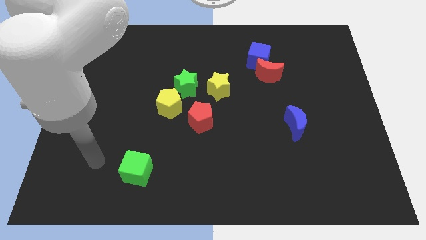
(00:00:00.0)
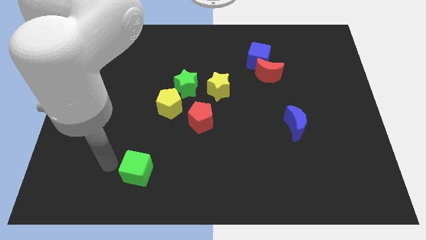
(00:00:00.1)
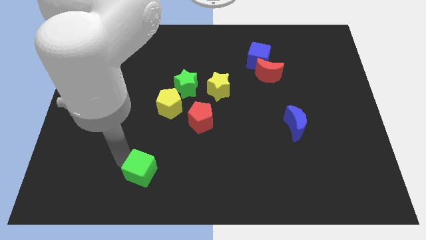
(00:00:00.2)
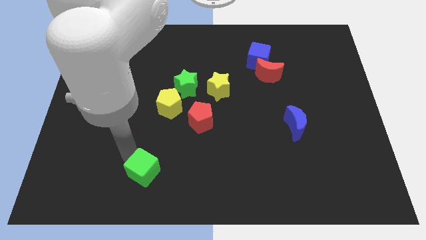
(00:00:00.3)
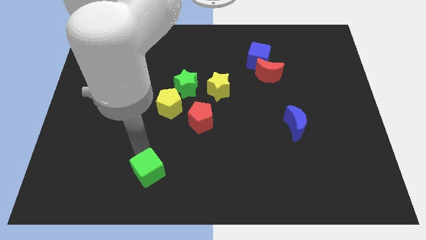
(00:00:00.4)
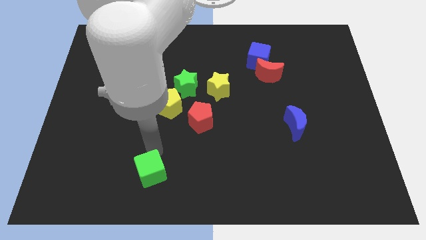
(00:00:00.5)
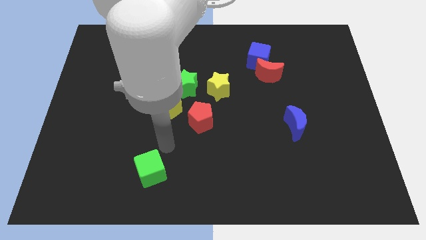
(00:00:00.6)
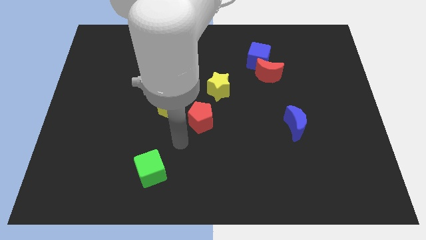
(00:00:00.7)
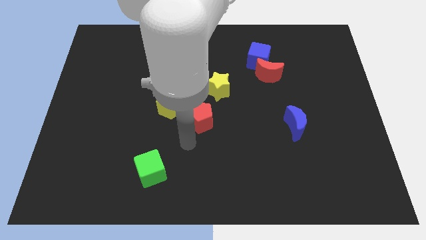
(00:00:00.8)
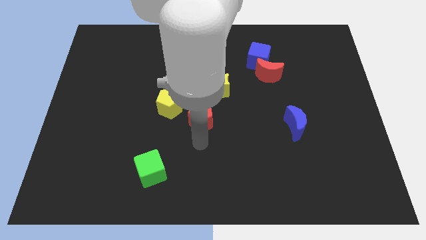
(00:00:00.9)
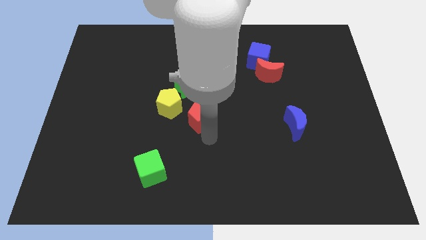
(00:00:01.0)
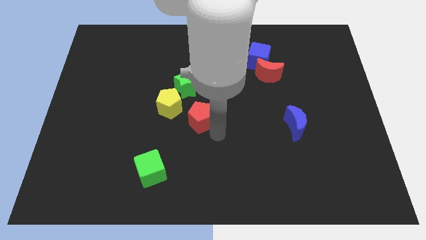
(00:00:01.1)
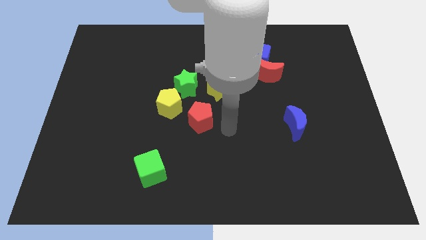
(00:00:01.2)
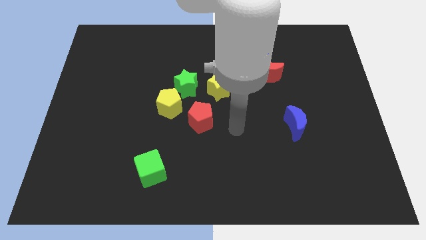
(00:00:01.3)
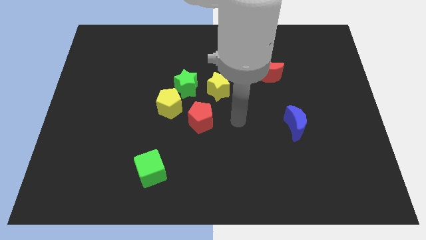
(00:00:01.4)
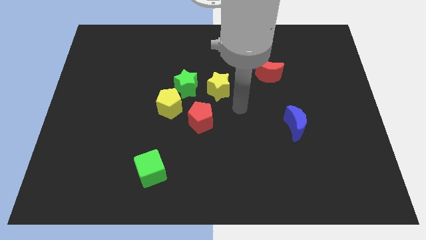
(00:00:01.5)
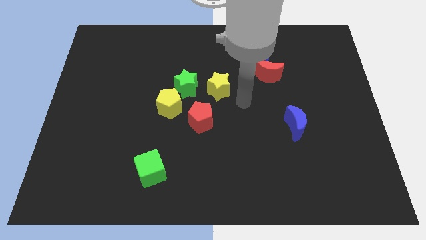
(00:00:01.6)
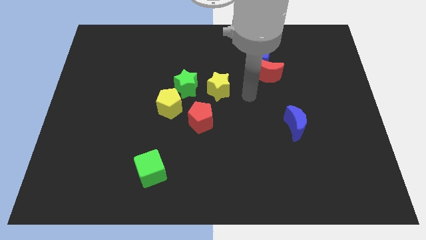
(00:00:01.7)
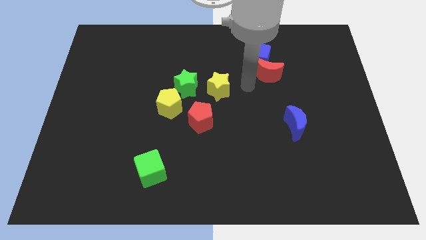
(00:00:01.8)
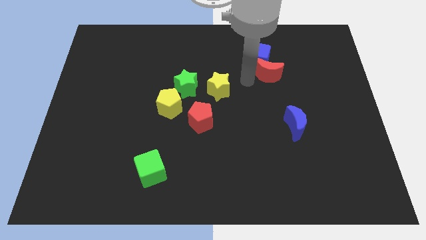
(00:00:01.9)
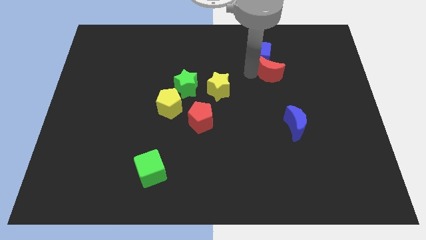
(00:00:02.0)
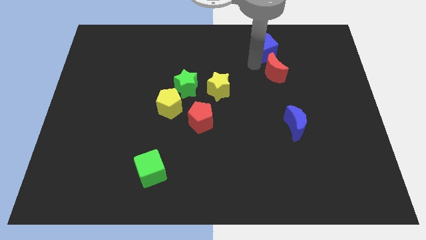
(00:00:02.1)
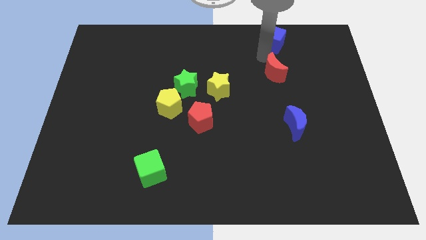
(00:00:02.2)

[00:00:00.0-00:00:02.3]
move the red moon away from the blue cube

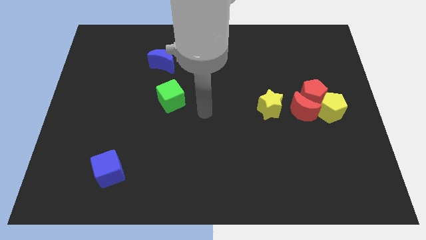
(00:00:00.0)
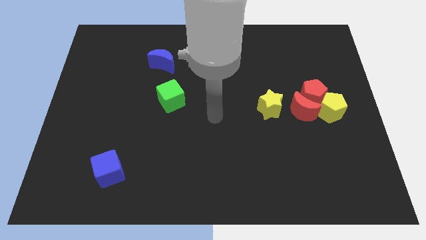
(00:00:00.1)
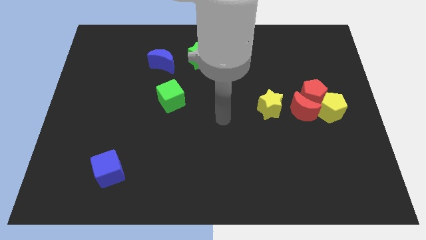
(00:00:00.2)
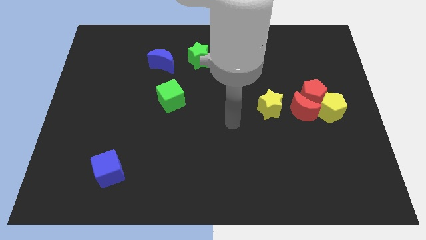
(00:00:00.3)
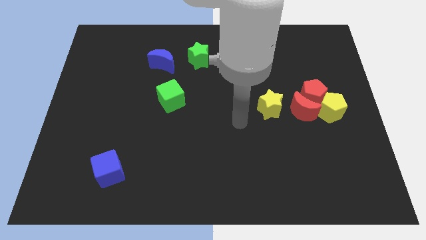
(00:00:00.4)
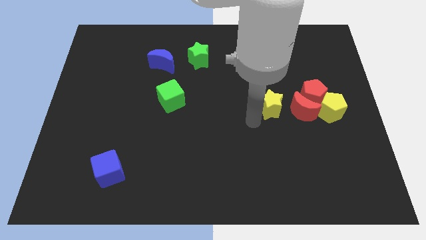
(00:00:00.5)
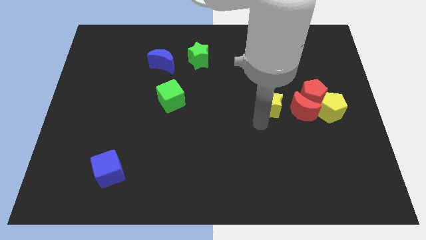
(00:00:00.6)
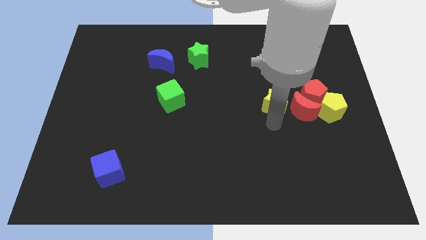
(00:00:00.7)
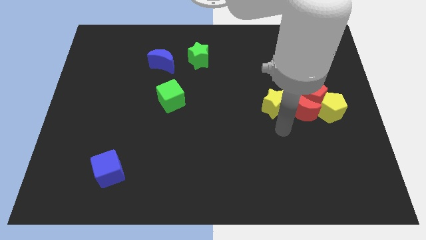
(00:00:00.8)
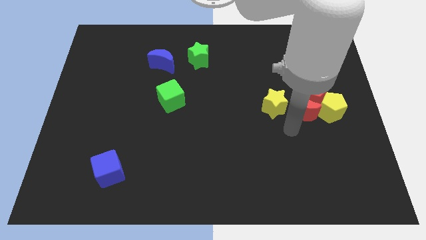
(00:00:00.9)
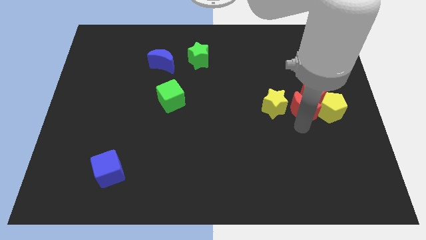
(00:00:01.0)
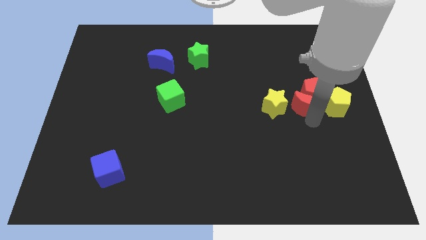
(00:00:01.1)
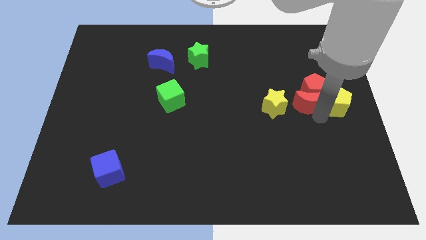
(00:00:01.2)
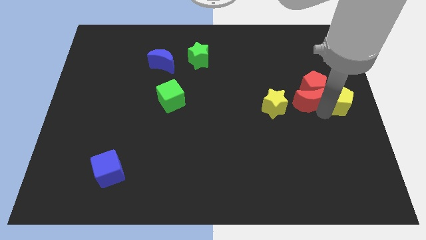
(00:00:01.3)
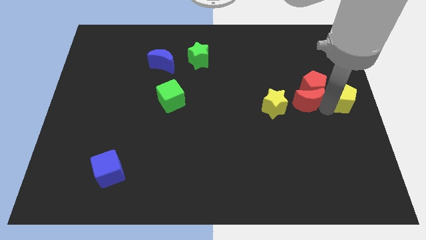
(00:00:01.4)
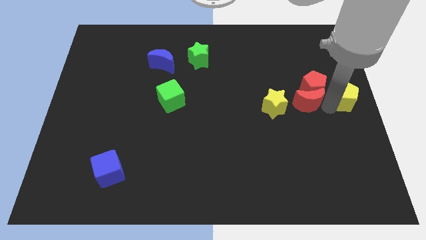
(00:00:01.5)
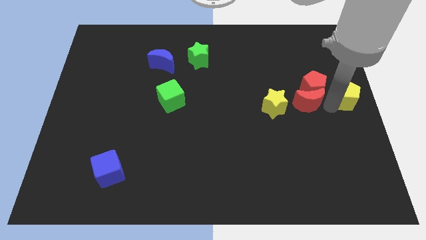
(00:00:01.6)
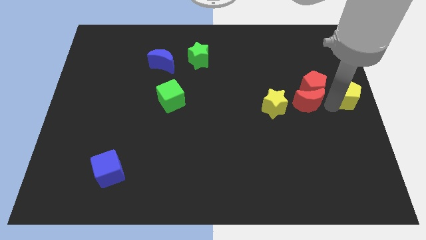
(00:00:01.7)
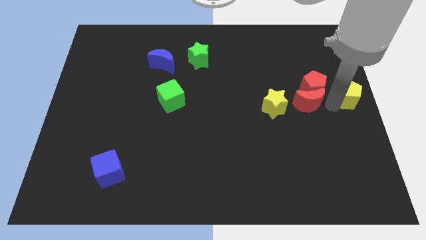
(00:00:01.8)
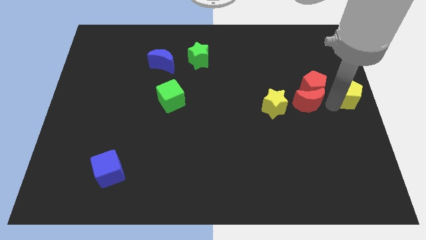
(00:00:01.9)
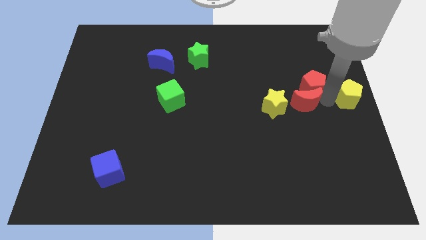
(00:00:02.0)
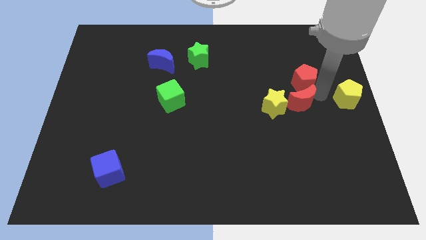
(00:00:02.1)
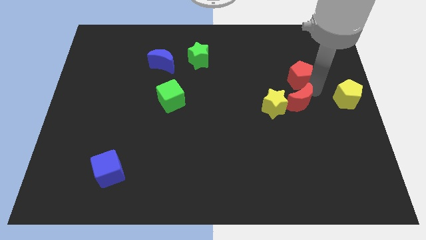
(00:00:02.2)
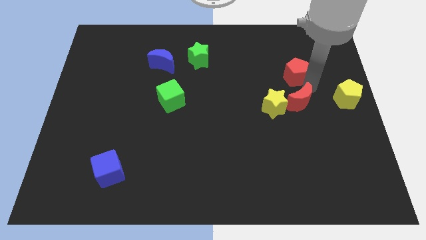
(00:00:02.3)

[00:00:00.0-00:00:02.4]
pull the red pentagon apart from the red moon and yellow pentagon

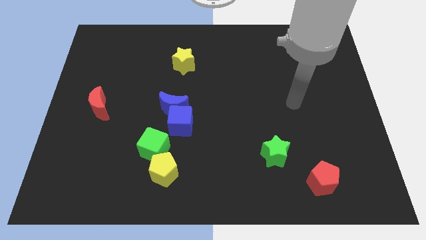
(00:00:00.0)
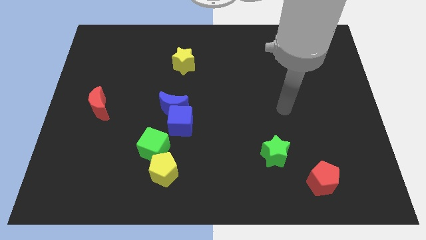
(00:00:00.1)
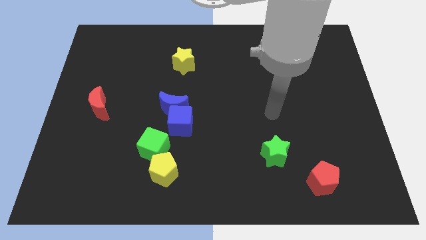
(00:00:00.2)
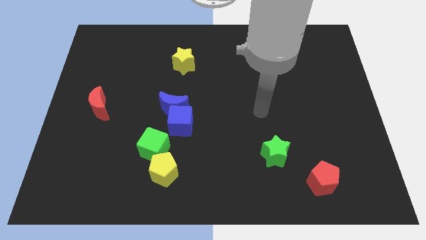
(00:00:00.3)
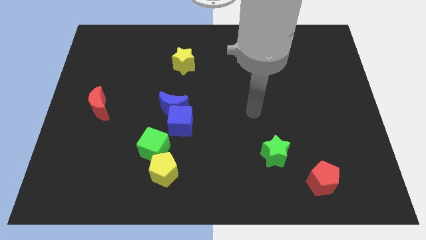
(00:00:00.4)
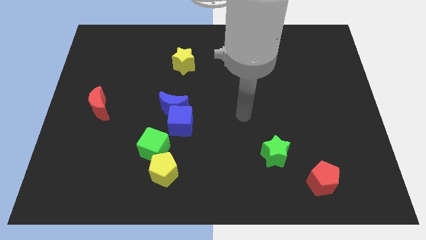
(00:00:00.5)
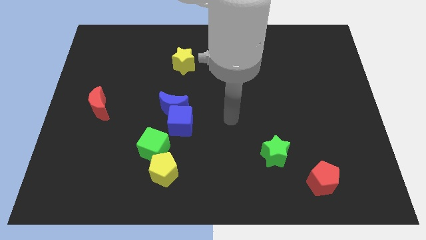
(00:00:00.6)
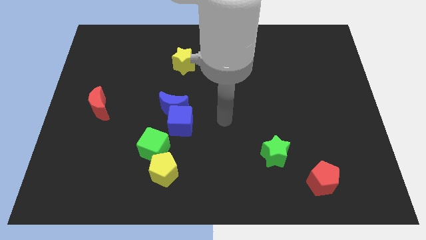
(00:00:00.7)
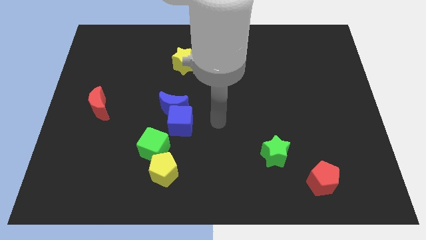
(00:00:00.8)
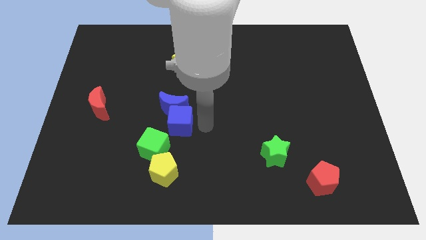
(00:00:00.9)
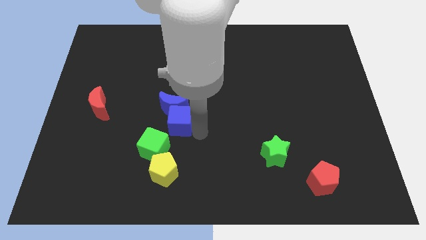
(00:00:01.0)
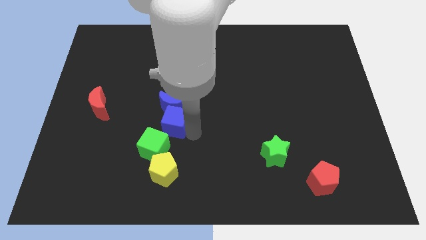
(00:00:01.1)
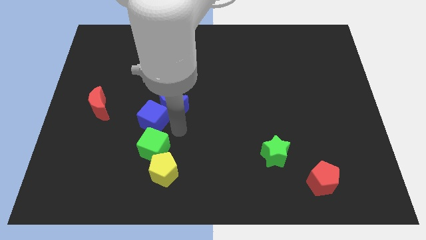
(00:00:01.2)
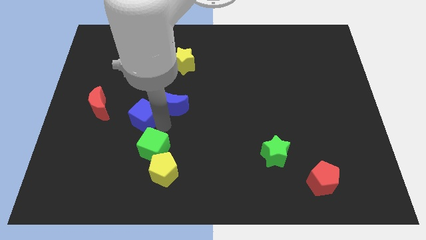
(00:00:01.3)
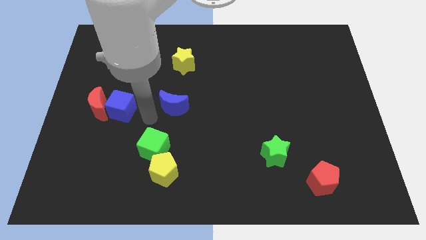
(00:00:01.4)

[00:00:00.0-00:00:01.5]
move the blue moon away from the blue cube

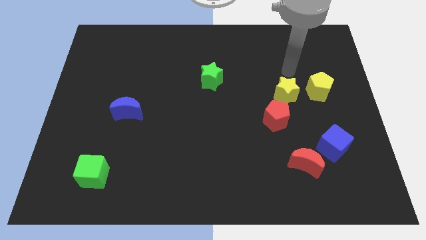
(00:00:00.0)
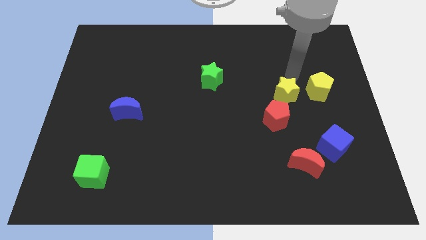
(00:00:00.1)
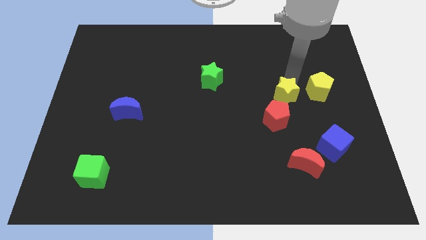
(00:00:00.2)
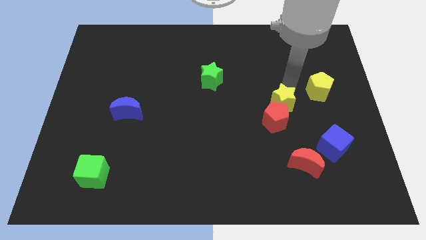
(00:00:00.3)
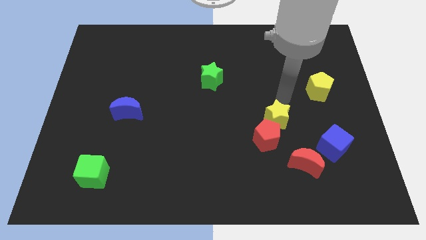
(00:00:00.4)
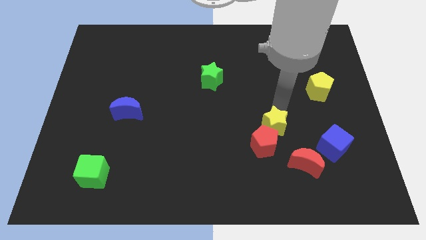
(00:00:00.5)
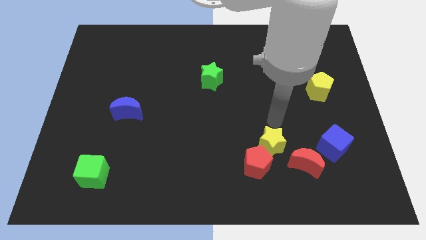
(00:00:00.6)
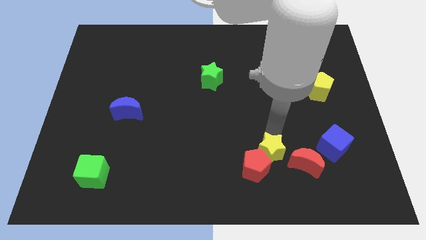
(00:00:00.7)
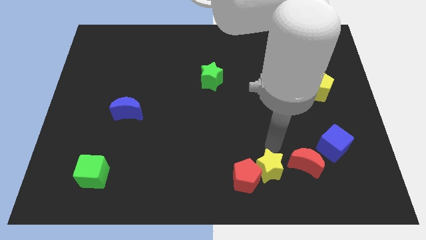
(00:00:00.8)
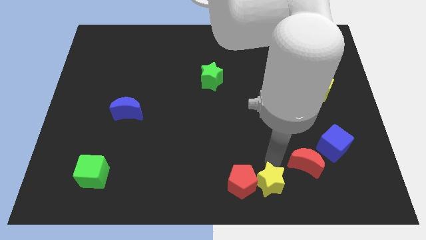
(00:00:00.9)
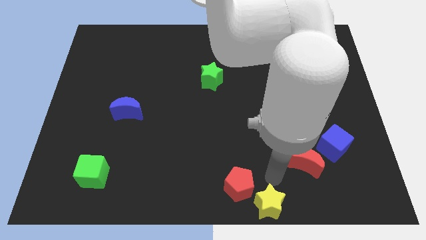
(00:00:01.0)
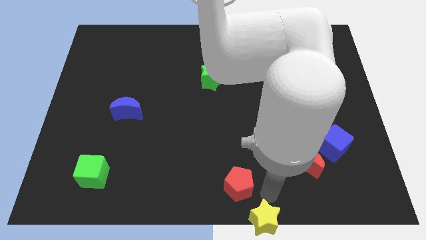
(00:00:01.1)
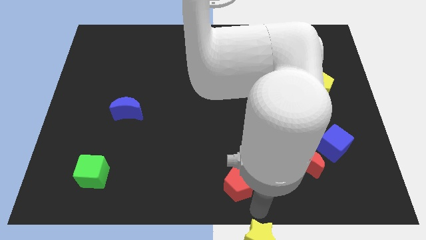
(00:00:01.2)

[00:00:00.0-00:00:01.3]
move the red pentagon away from the yellow star

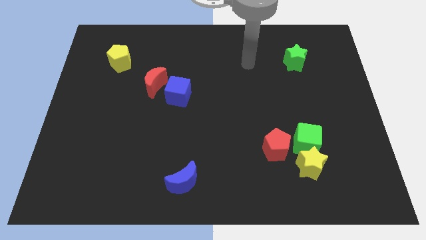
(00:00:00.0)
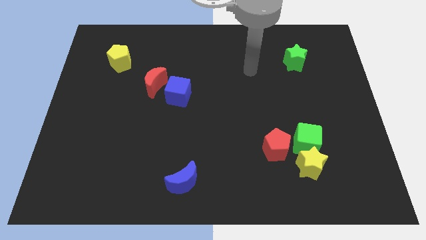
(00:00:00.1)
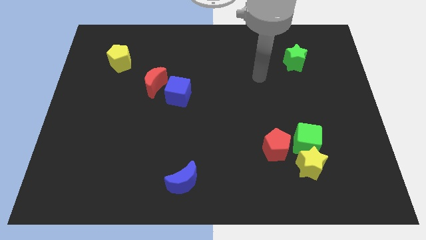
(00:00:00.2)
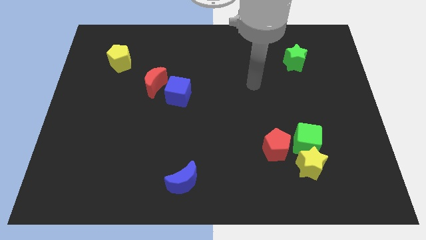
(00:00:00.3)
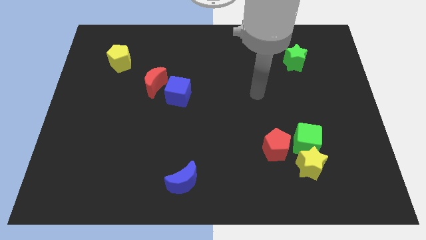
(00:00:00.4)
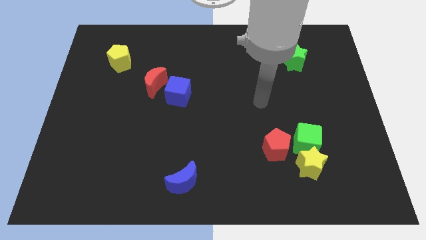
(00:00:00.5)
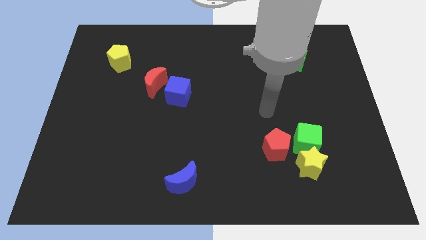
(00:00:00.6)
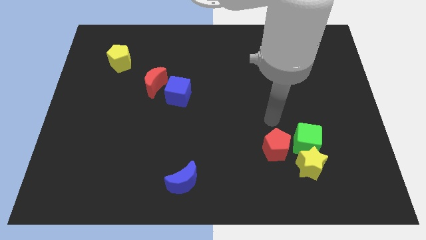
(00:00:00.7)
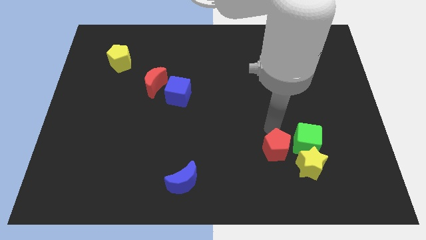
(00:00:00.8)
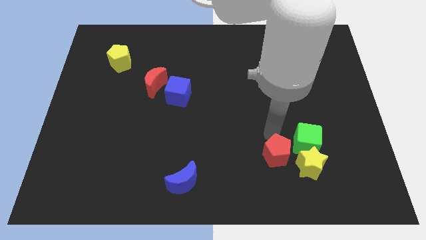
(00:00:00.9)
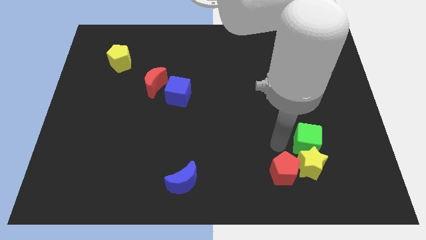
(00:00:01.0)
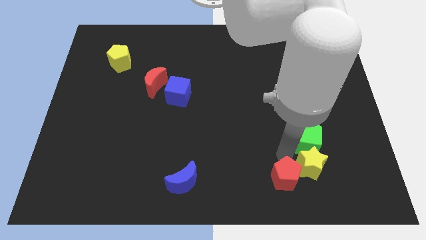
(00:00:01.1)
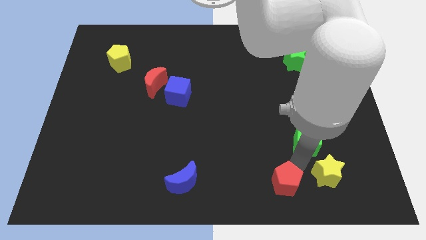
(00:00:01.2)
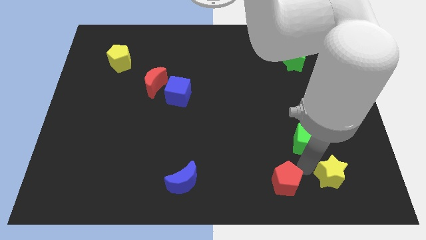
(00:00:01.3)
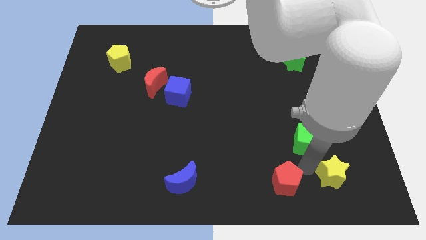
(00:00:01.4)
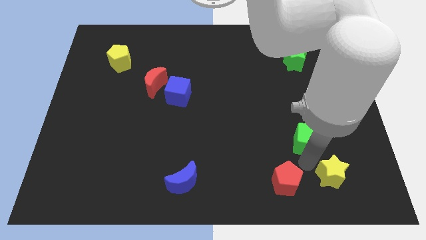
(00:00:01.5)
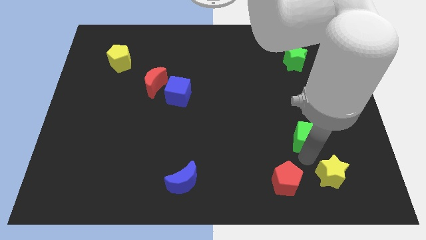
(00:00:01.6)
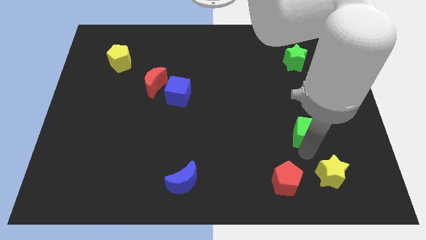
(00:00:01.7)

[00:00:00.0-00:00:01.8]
separate the green cube from the yellow star and red pentagon
